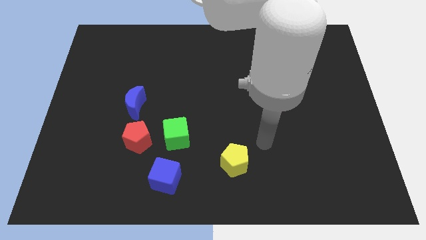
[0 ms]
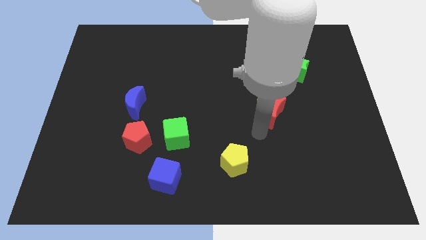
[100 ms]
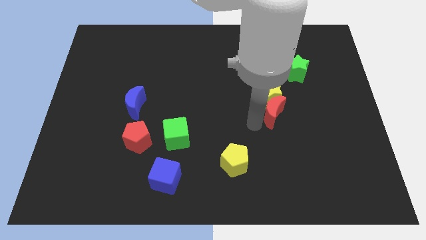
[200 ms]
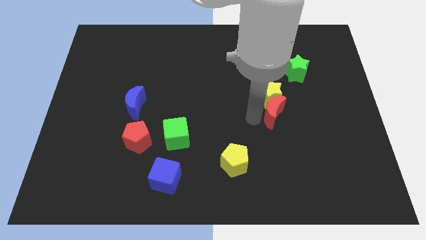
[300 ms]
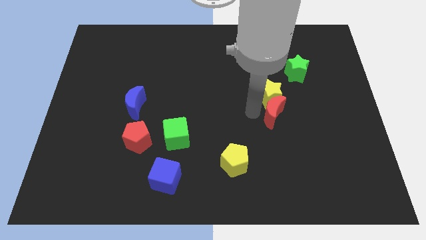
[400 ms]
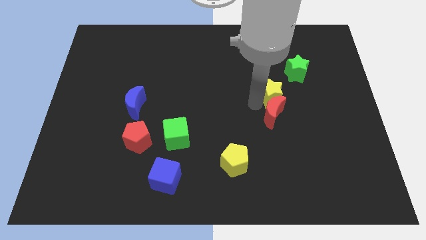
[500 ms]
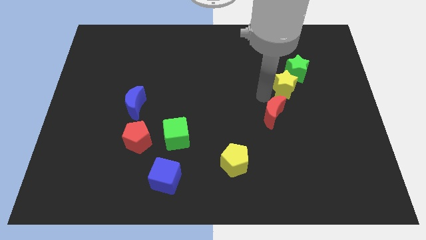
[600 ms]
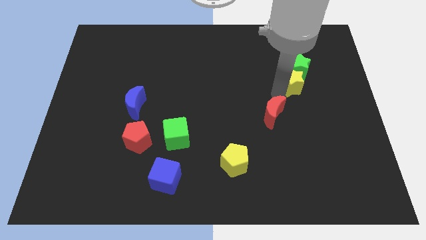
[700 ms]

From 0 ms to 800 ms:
pull the red moon apart from the yellow star

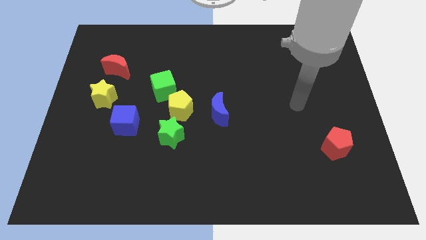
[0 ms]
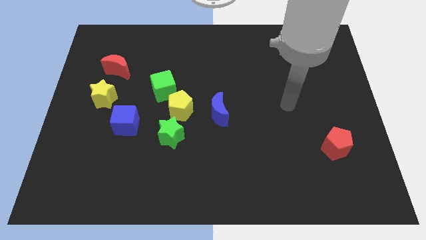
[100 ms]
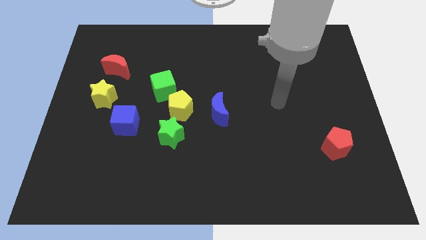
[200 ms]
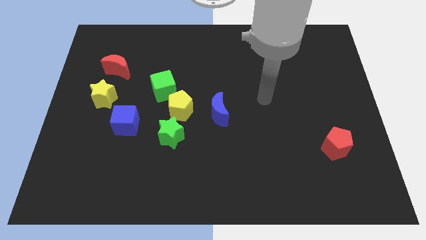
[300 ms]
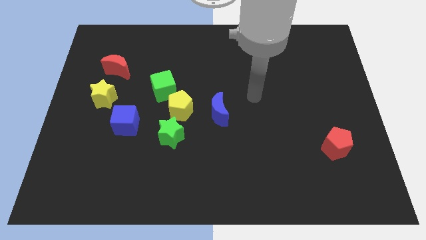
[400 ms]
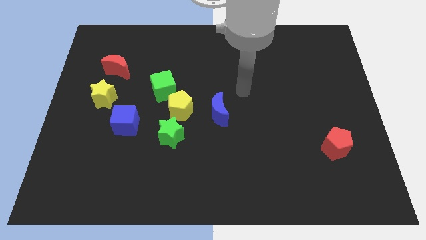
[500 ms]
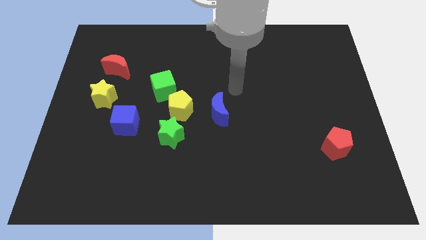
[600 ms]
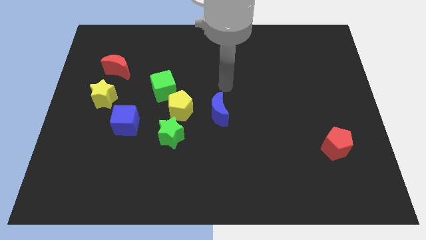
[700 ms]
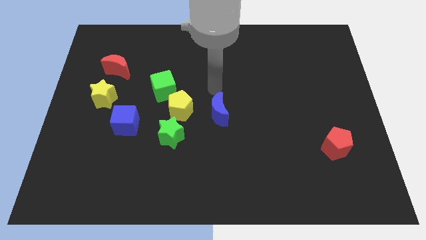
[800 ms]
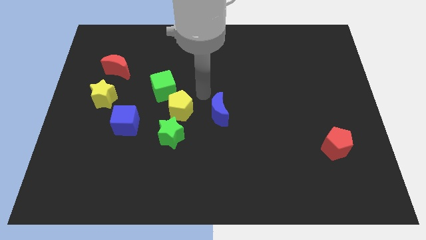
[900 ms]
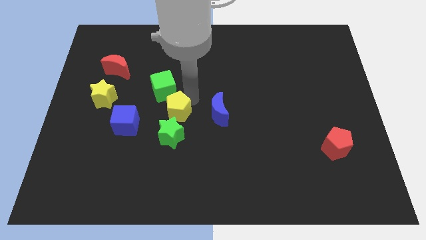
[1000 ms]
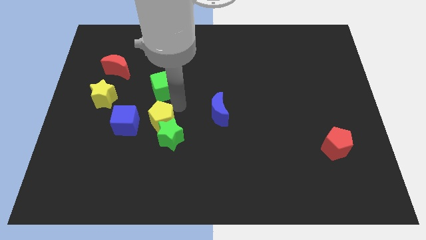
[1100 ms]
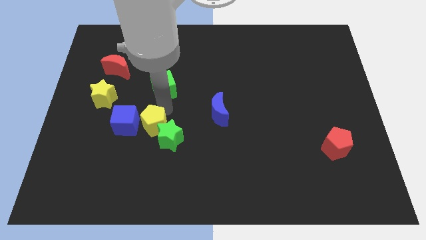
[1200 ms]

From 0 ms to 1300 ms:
pull the green cube apart from the yellow pentagon

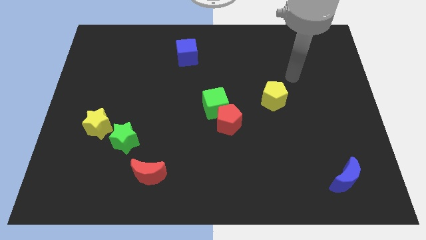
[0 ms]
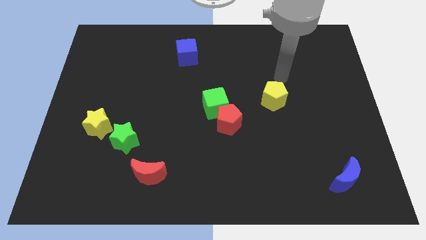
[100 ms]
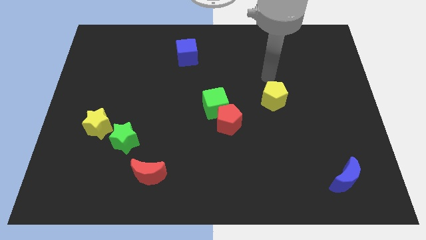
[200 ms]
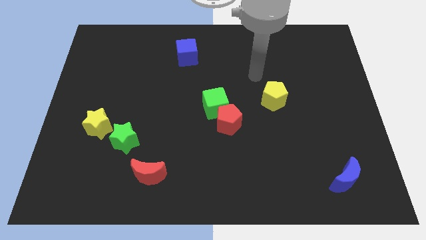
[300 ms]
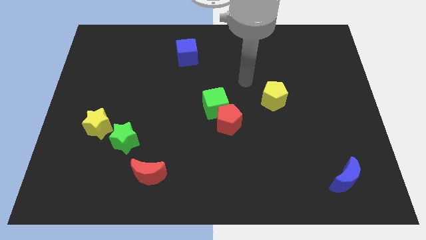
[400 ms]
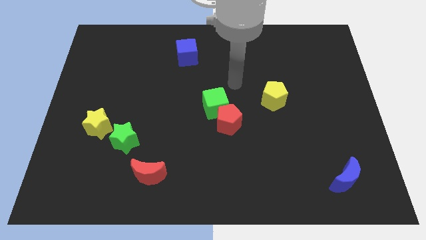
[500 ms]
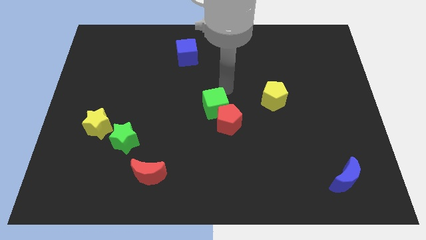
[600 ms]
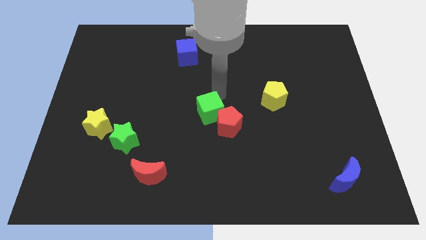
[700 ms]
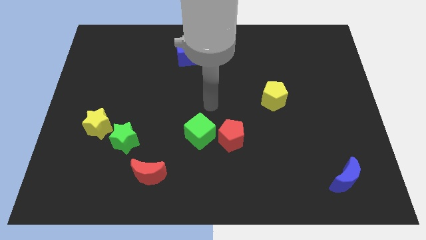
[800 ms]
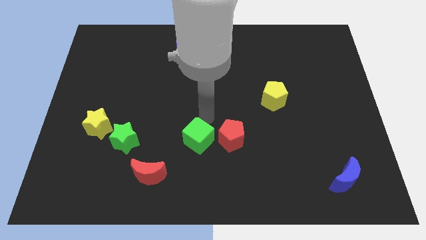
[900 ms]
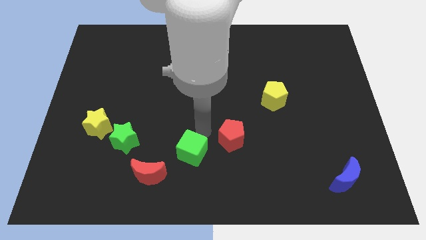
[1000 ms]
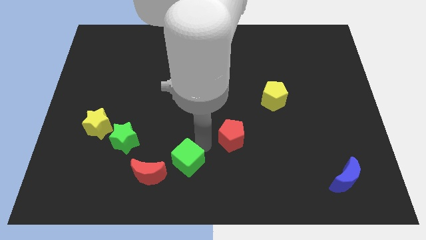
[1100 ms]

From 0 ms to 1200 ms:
separate the red pentagon from the green cube

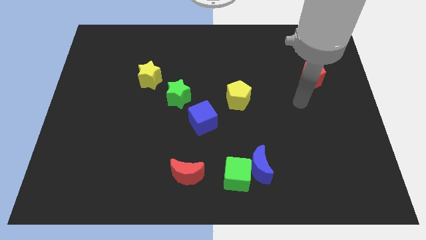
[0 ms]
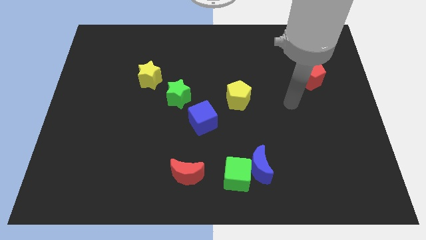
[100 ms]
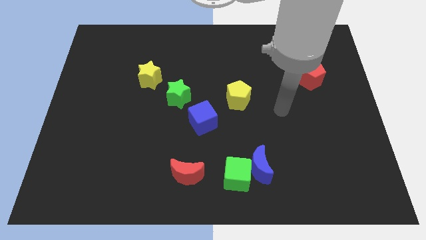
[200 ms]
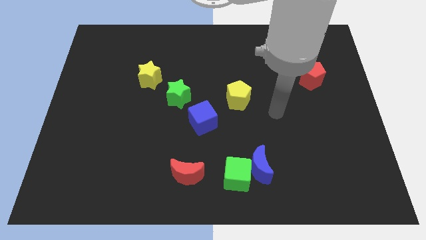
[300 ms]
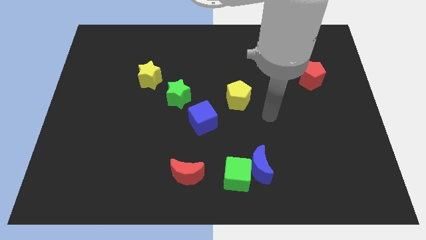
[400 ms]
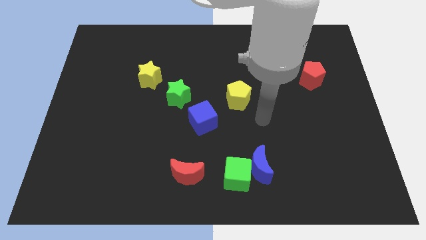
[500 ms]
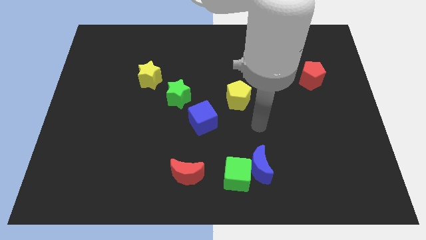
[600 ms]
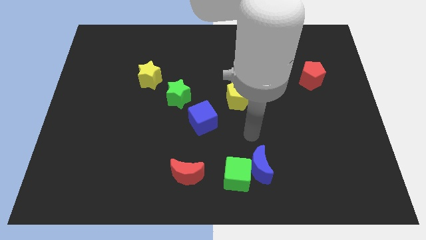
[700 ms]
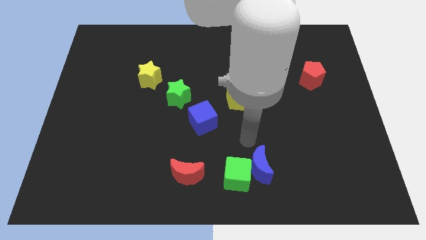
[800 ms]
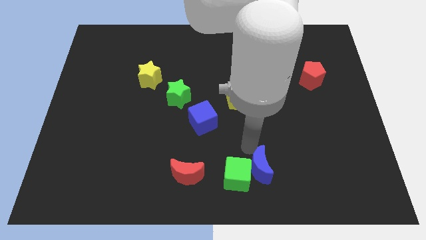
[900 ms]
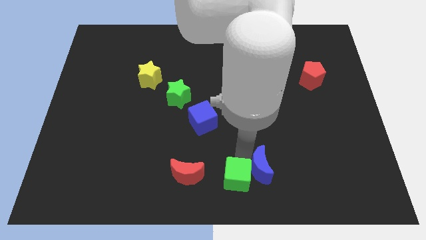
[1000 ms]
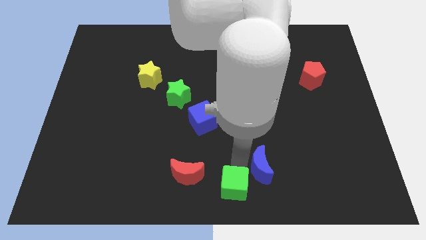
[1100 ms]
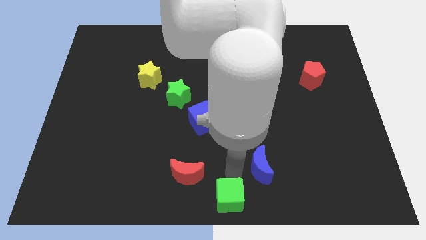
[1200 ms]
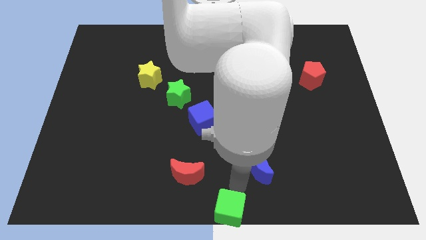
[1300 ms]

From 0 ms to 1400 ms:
separate the blue moon from the green cube

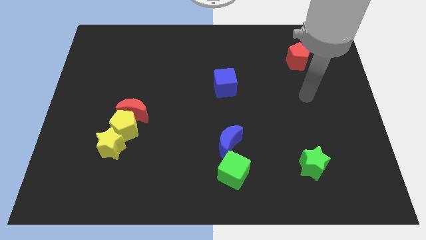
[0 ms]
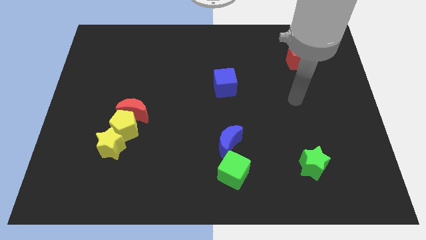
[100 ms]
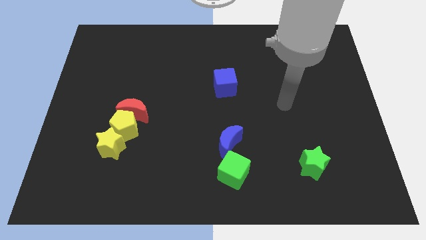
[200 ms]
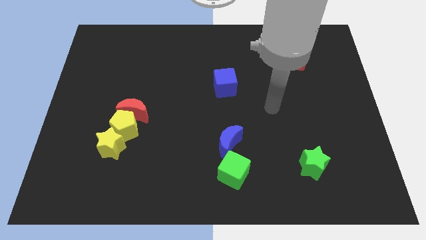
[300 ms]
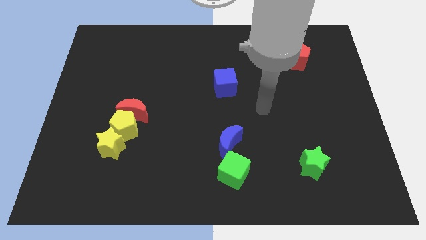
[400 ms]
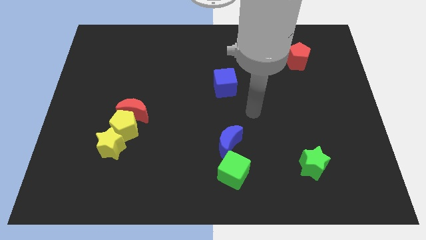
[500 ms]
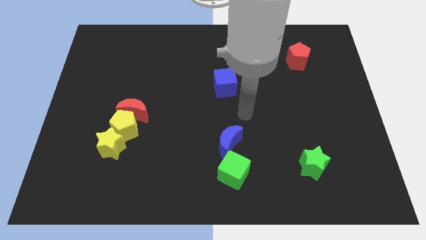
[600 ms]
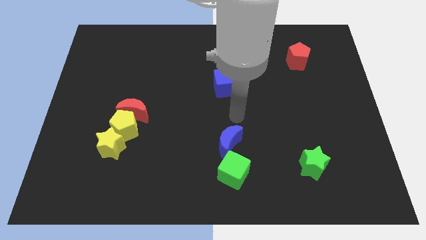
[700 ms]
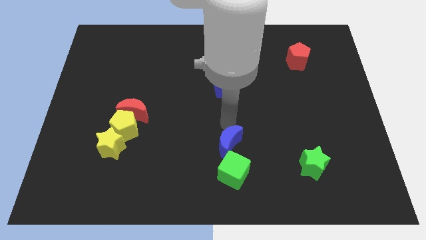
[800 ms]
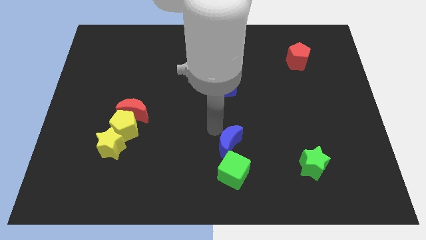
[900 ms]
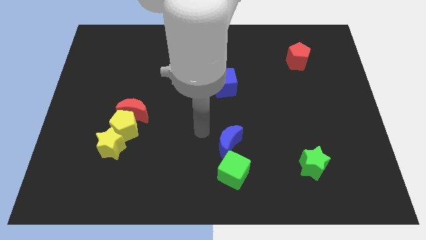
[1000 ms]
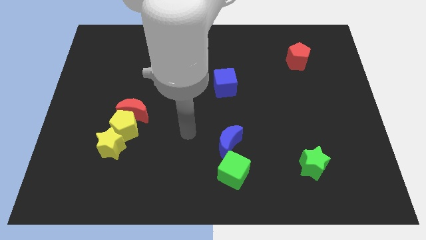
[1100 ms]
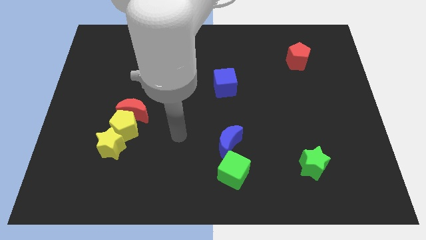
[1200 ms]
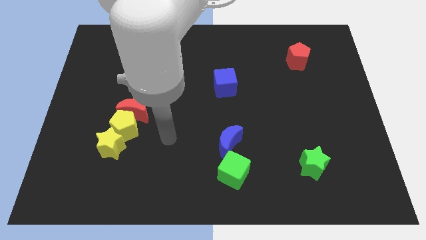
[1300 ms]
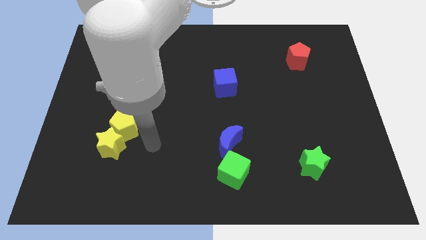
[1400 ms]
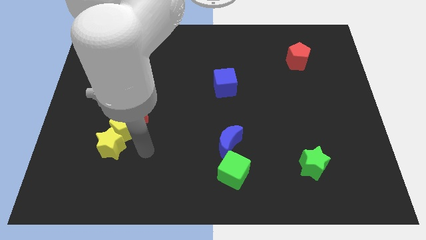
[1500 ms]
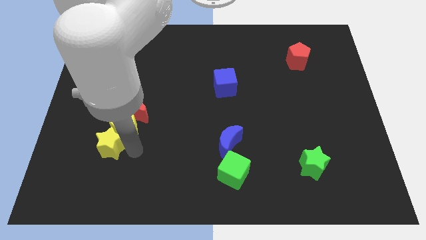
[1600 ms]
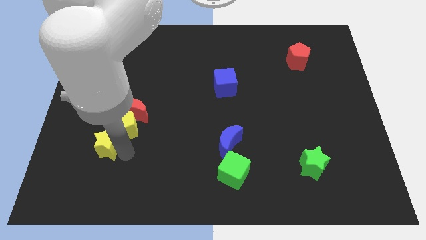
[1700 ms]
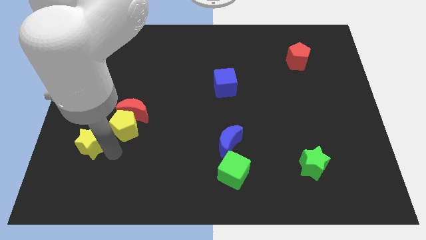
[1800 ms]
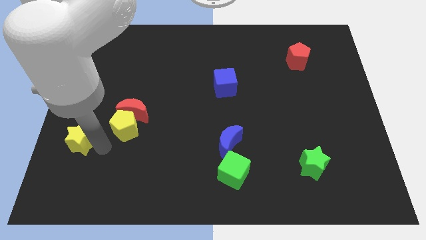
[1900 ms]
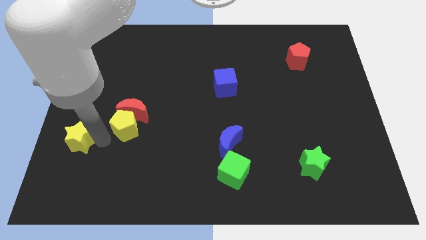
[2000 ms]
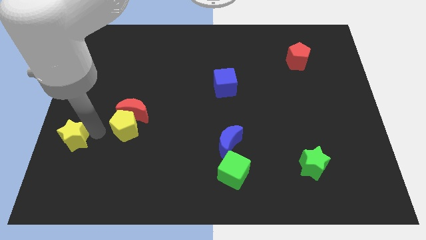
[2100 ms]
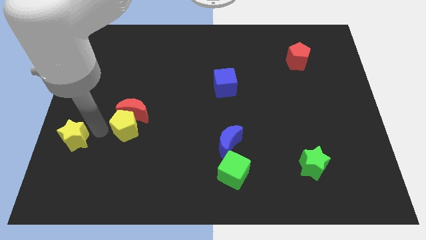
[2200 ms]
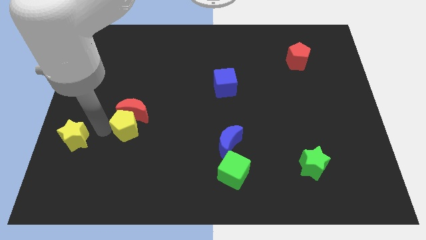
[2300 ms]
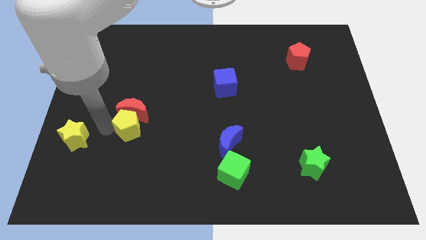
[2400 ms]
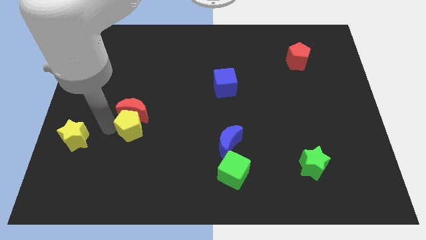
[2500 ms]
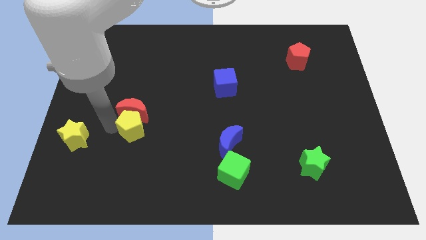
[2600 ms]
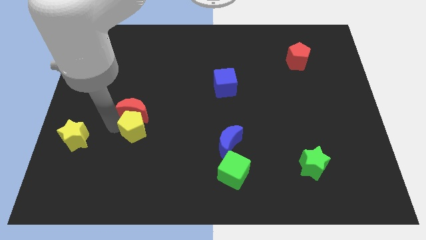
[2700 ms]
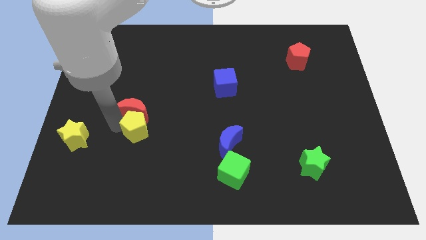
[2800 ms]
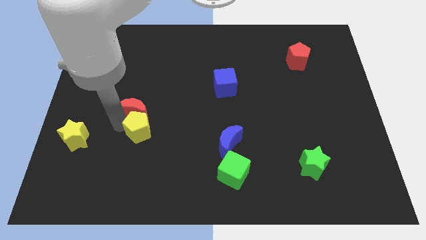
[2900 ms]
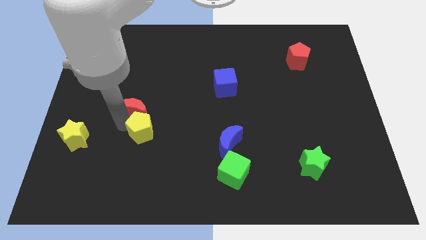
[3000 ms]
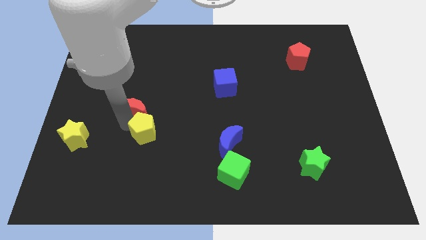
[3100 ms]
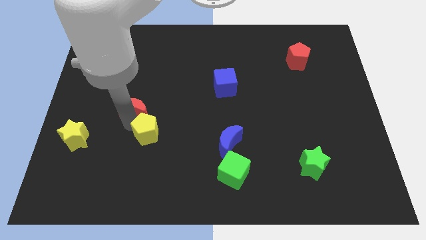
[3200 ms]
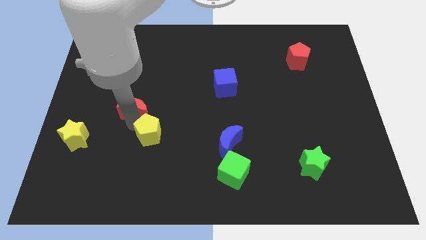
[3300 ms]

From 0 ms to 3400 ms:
separate the yellow pentagon from the red moon and yellow star

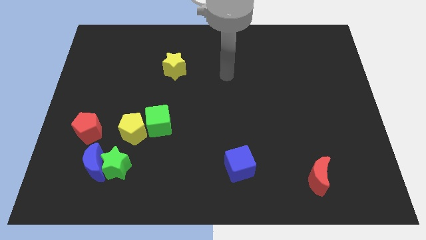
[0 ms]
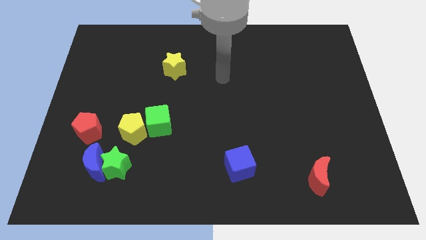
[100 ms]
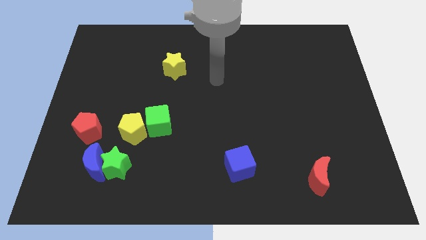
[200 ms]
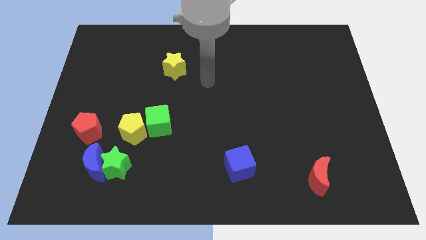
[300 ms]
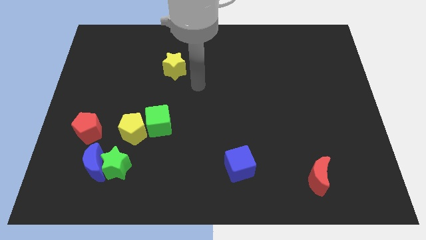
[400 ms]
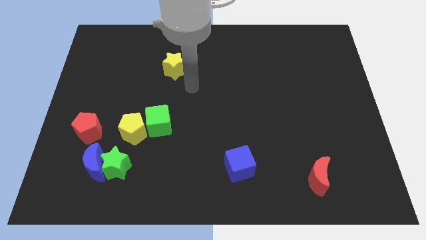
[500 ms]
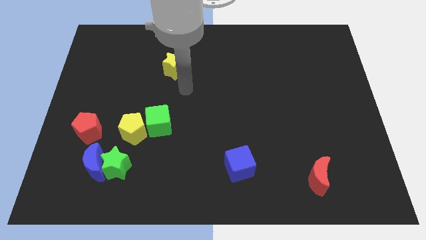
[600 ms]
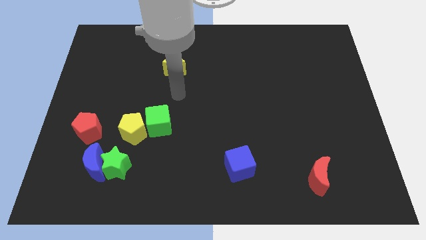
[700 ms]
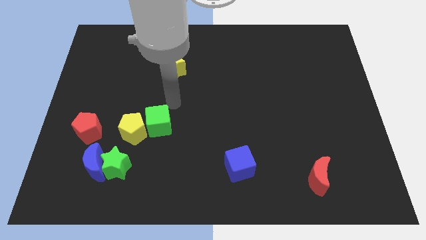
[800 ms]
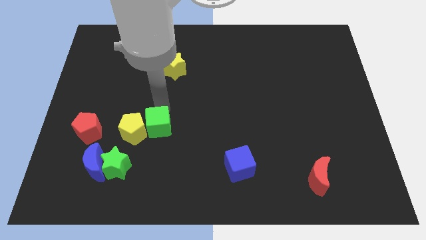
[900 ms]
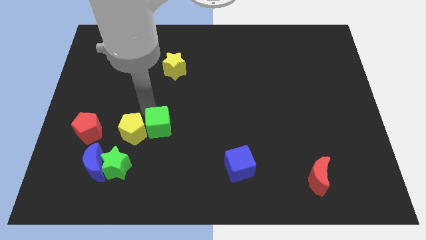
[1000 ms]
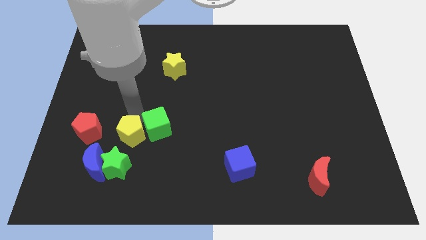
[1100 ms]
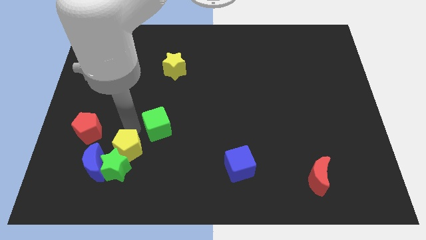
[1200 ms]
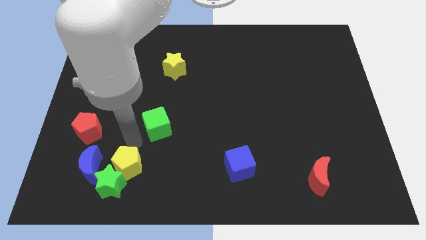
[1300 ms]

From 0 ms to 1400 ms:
separate the green cube from the yellow pentagon
